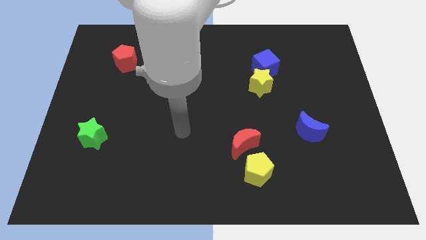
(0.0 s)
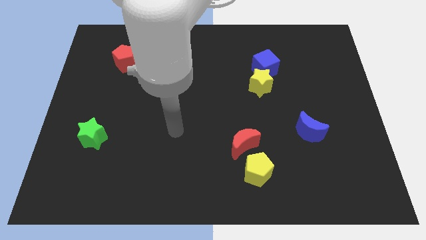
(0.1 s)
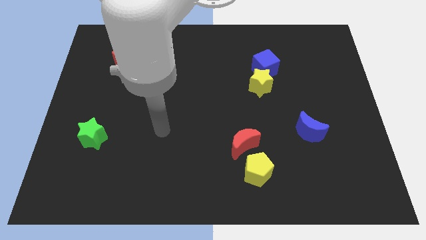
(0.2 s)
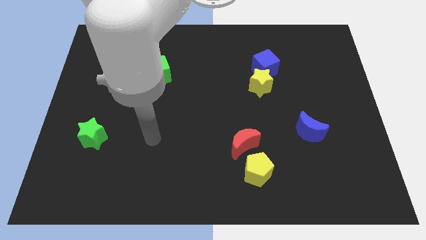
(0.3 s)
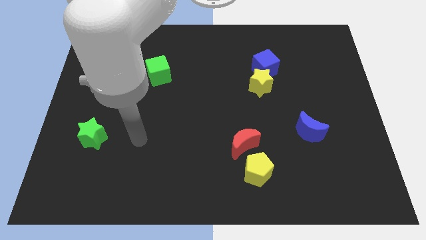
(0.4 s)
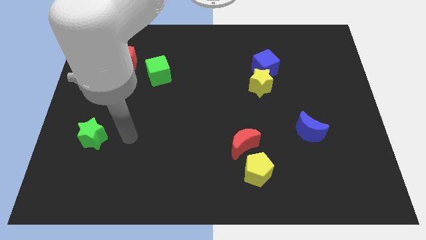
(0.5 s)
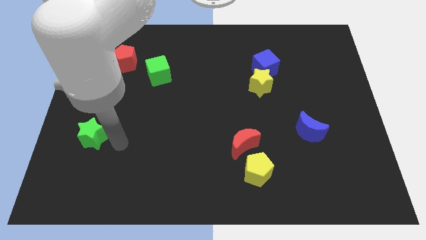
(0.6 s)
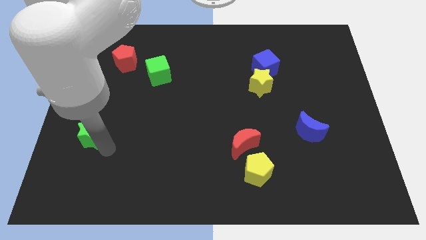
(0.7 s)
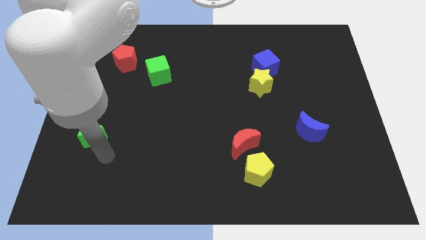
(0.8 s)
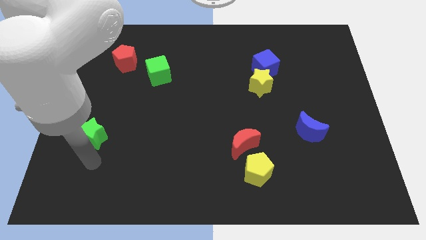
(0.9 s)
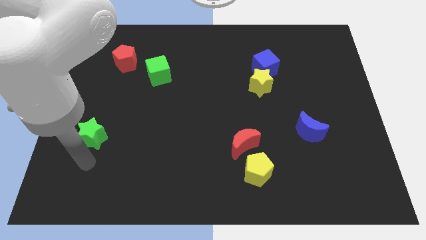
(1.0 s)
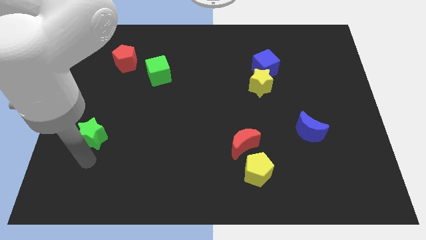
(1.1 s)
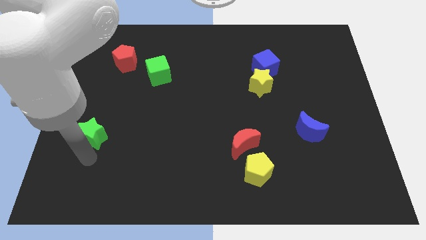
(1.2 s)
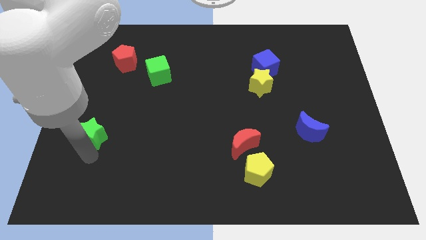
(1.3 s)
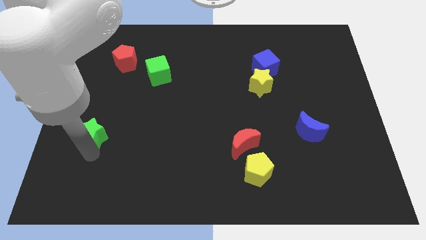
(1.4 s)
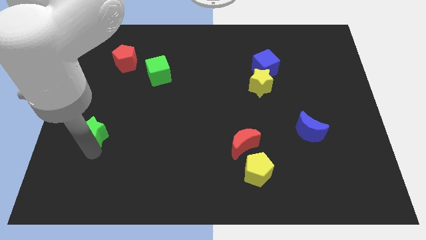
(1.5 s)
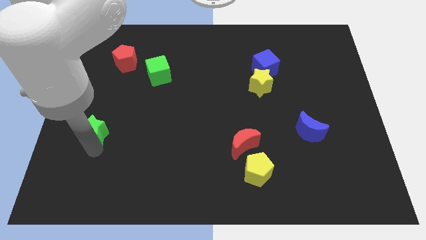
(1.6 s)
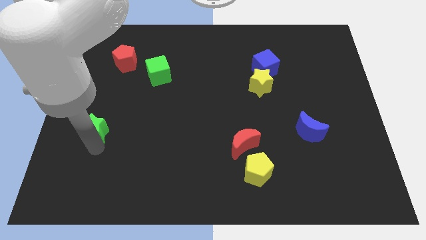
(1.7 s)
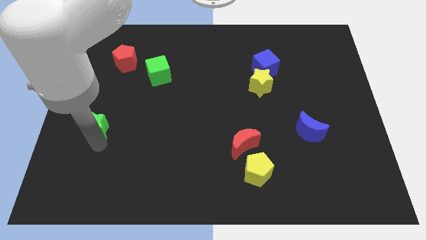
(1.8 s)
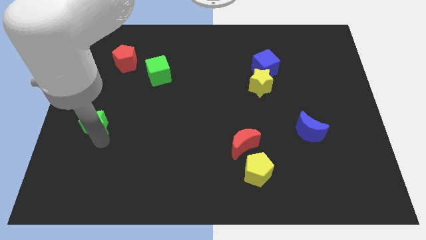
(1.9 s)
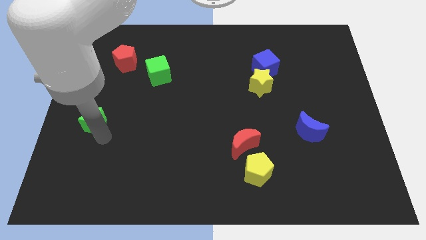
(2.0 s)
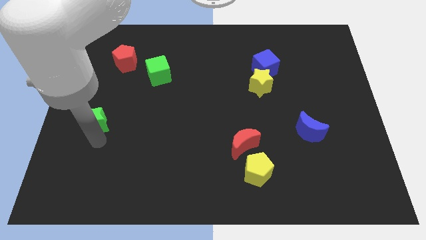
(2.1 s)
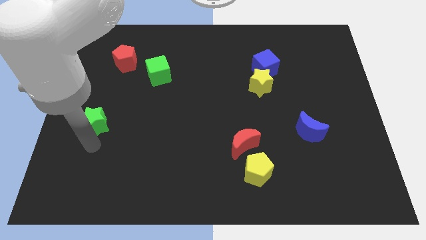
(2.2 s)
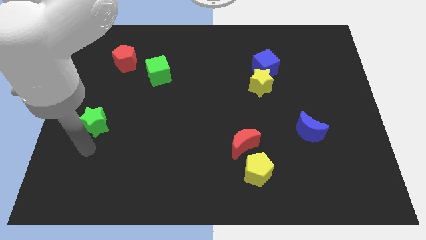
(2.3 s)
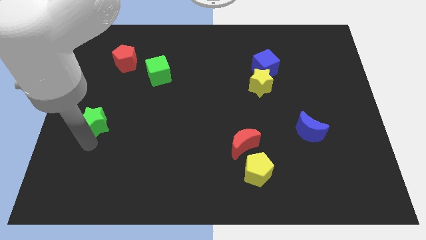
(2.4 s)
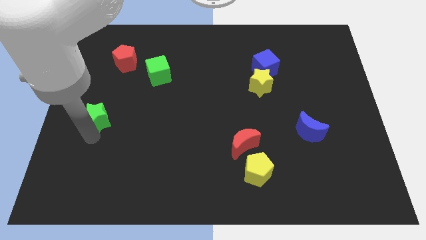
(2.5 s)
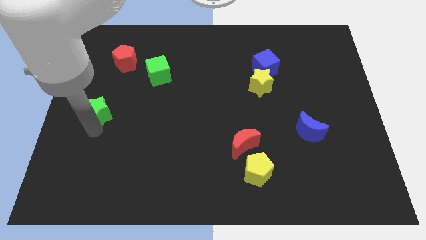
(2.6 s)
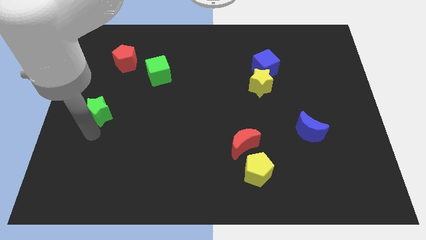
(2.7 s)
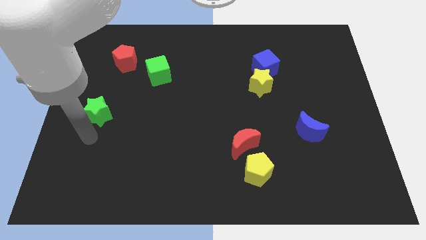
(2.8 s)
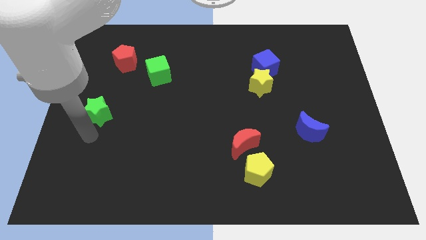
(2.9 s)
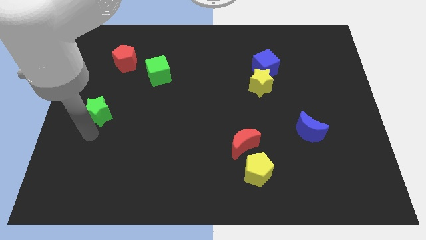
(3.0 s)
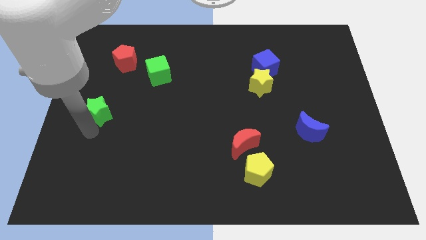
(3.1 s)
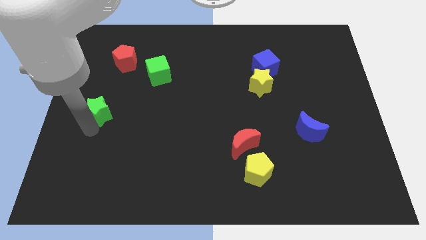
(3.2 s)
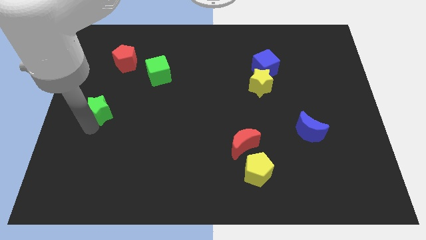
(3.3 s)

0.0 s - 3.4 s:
slightly slide the green star up

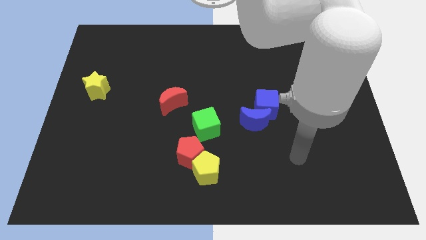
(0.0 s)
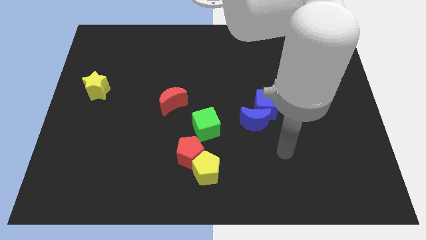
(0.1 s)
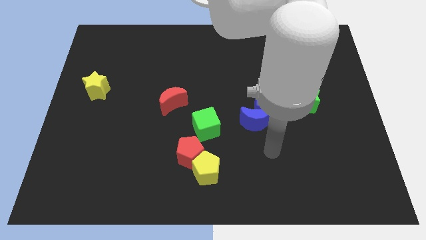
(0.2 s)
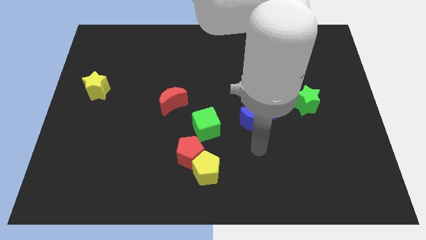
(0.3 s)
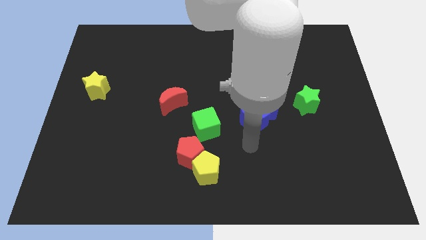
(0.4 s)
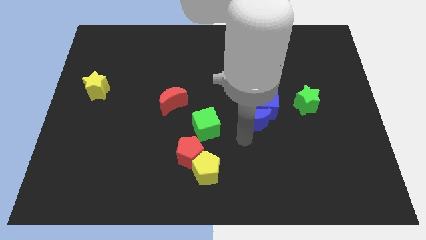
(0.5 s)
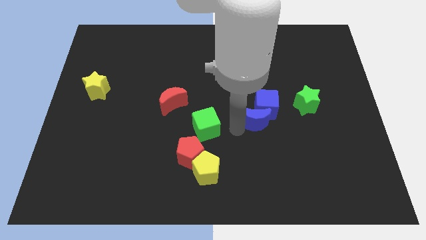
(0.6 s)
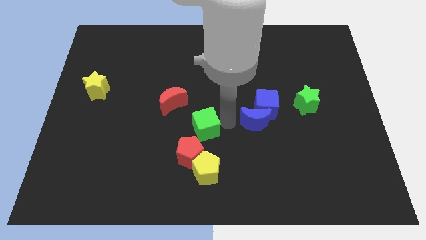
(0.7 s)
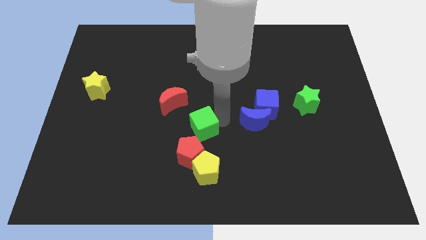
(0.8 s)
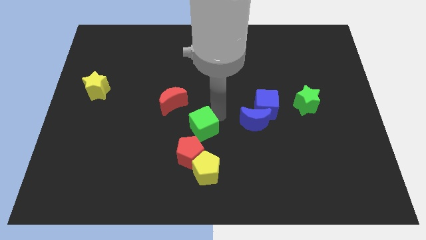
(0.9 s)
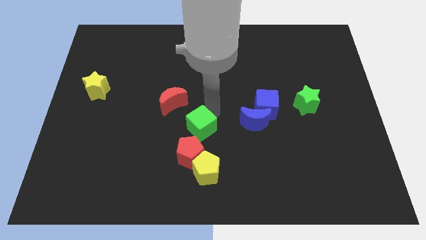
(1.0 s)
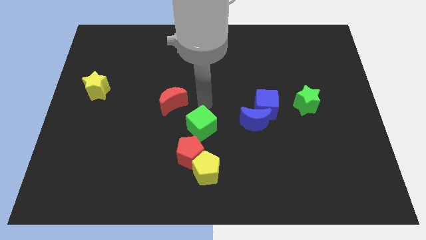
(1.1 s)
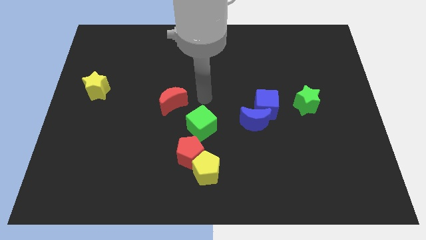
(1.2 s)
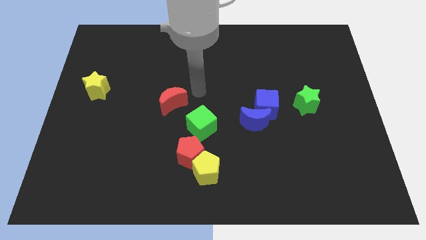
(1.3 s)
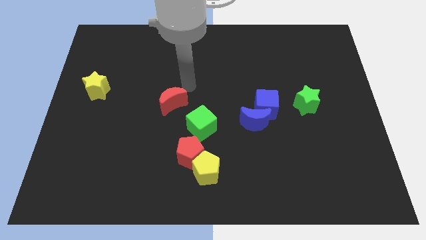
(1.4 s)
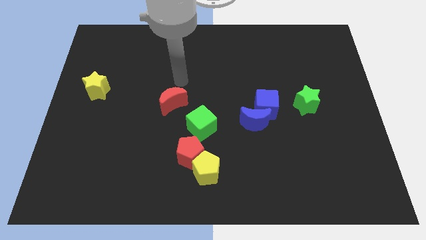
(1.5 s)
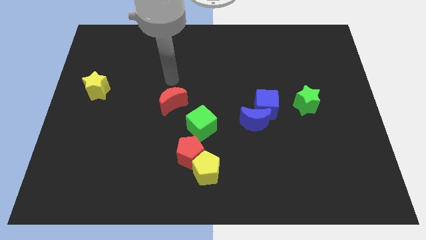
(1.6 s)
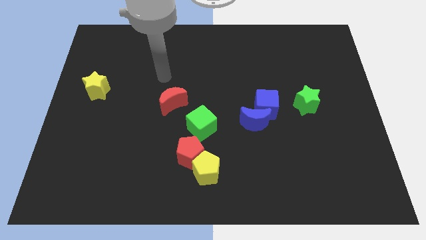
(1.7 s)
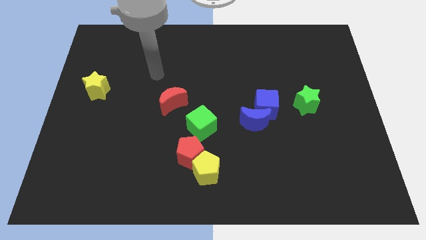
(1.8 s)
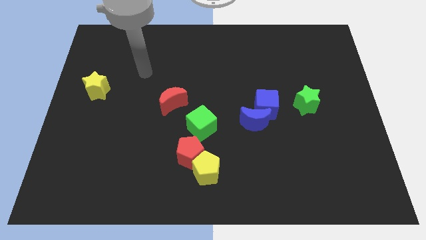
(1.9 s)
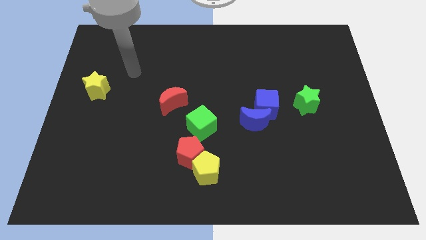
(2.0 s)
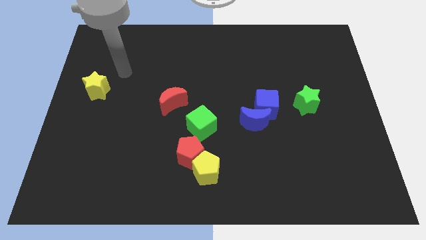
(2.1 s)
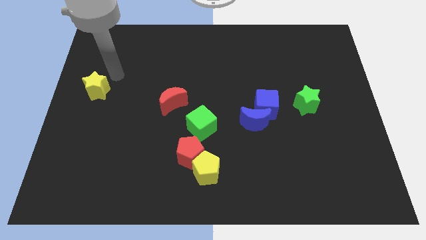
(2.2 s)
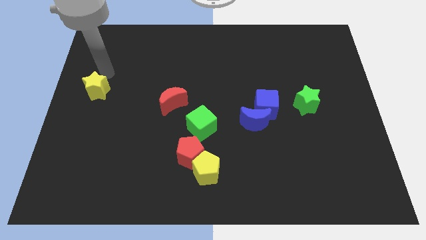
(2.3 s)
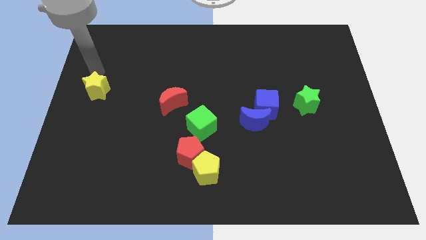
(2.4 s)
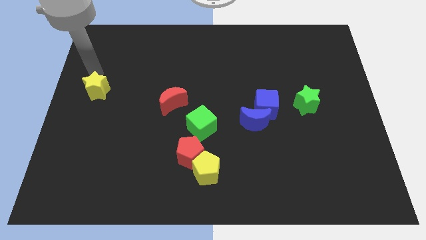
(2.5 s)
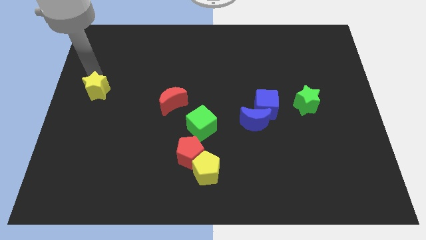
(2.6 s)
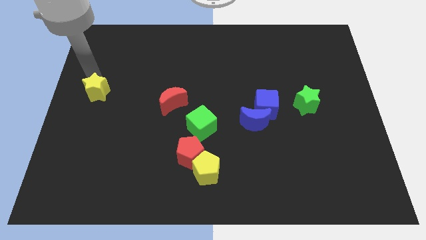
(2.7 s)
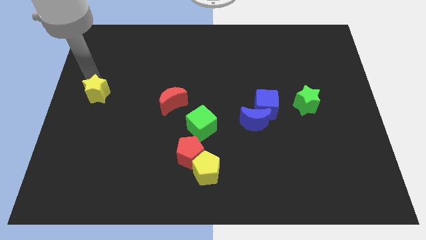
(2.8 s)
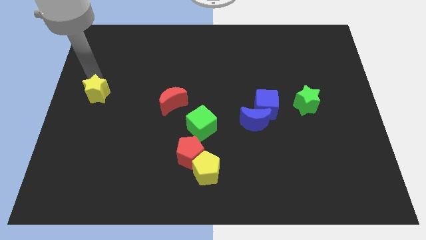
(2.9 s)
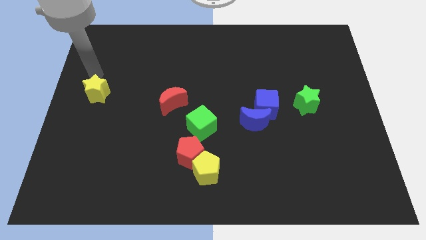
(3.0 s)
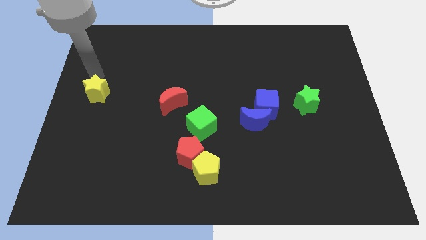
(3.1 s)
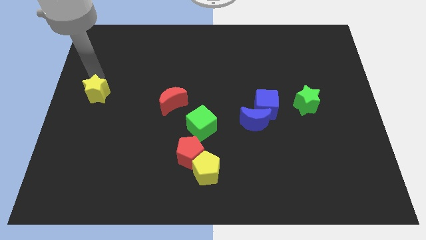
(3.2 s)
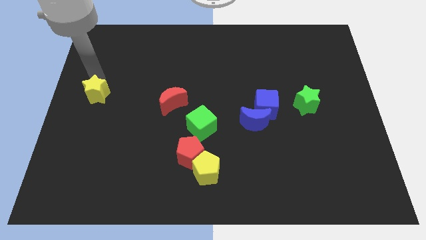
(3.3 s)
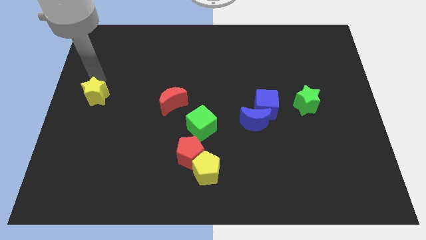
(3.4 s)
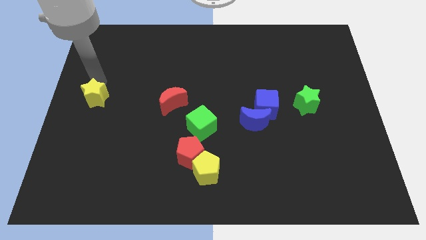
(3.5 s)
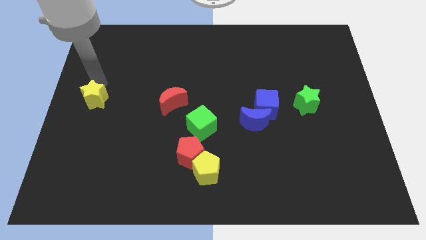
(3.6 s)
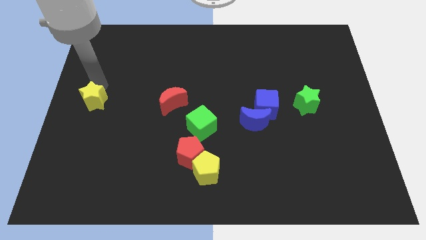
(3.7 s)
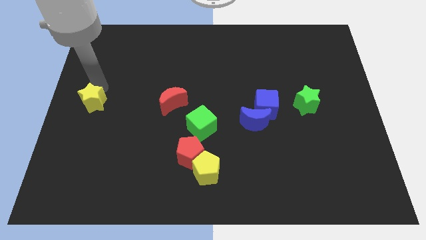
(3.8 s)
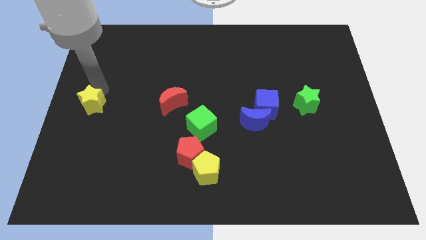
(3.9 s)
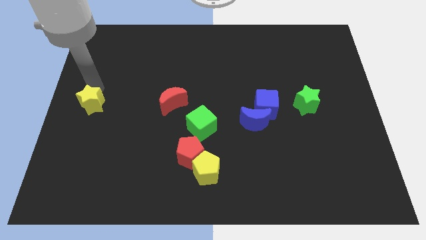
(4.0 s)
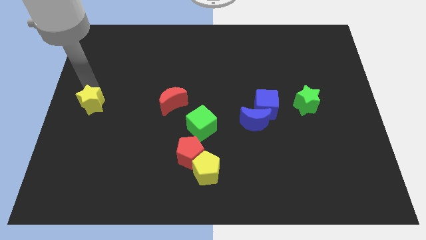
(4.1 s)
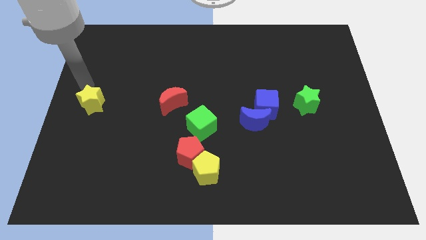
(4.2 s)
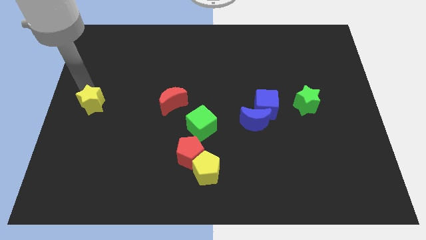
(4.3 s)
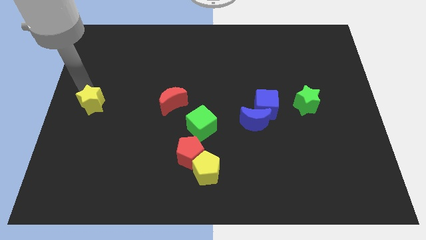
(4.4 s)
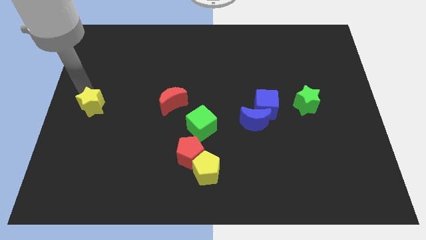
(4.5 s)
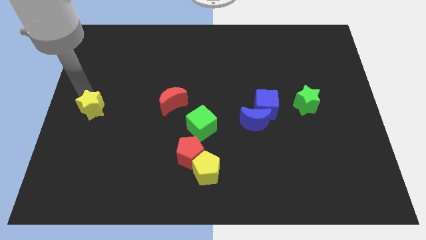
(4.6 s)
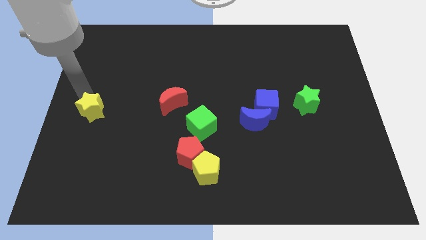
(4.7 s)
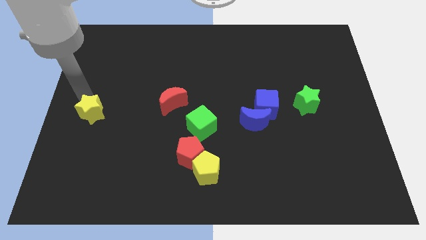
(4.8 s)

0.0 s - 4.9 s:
slightly slide the yellow star downwards
